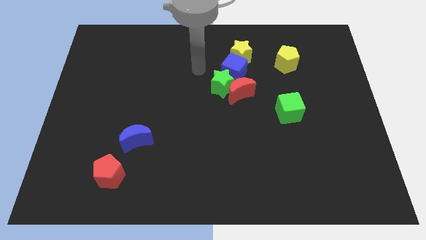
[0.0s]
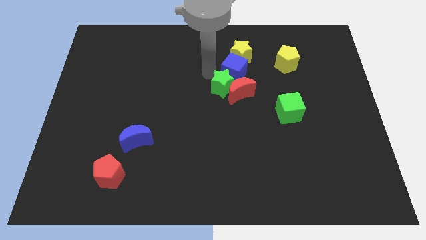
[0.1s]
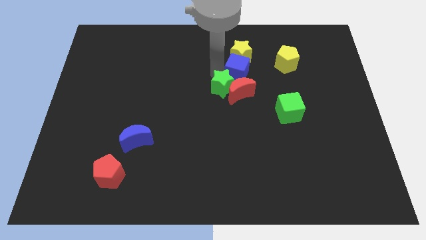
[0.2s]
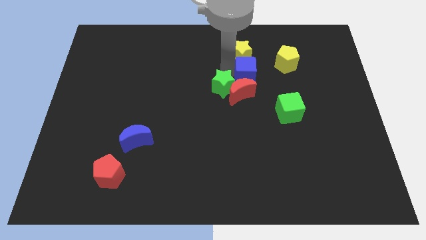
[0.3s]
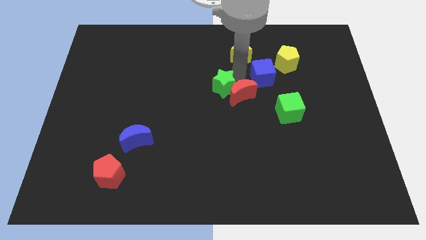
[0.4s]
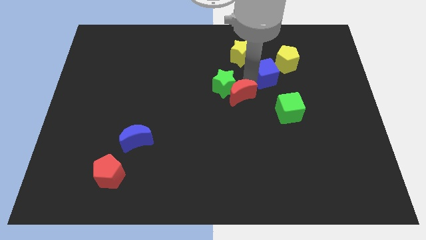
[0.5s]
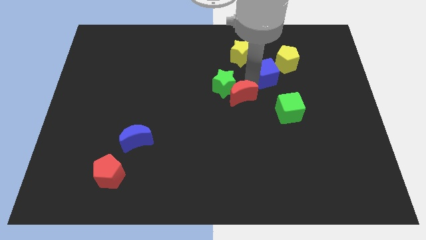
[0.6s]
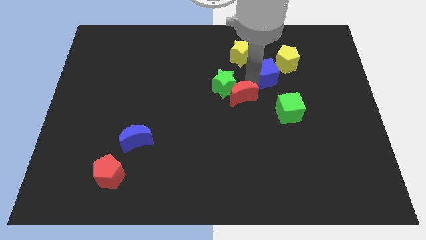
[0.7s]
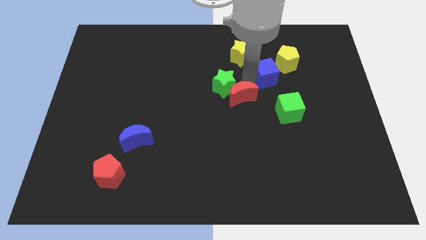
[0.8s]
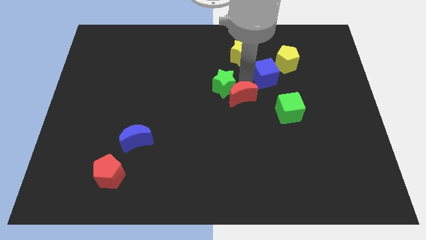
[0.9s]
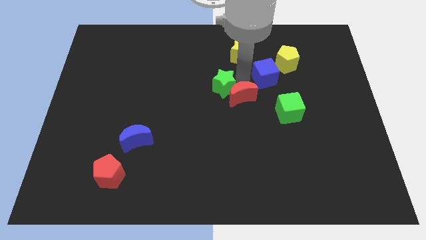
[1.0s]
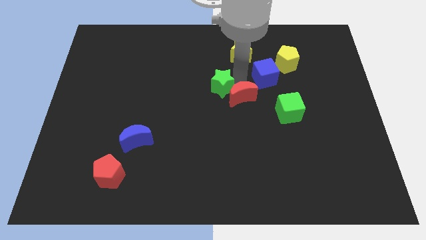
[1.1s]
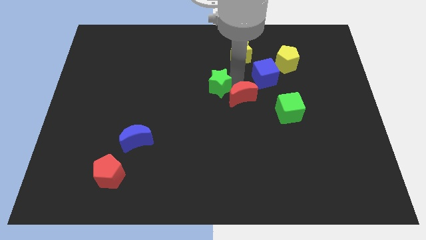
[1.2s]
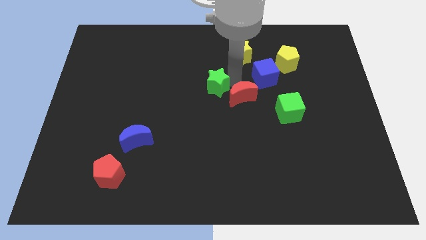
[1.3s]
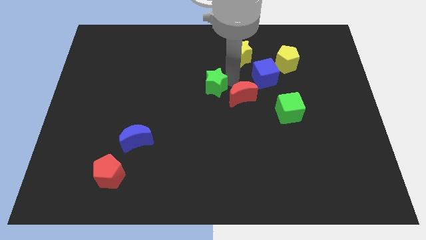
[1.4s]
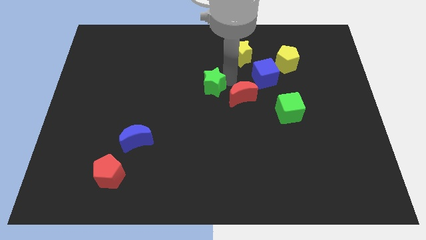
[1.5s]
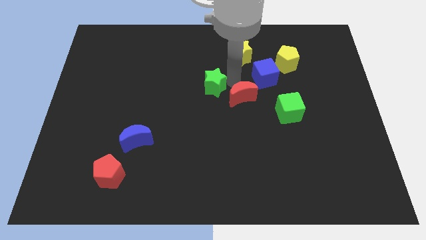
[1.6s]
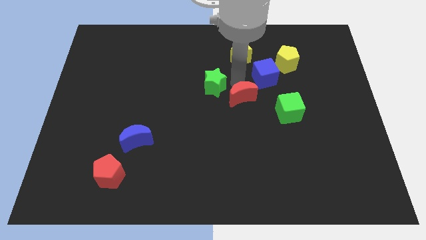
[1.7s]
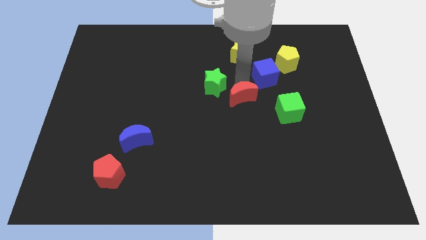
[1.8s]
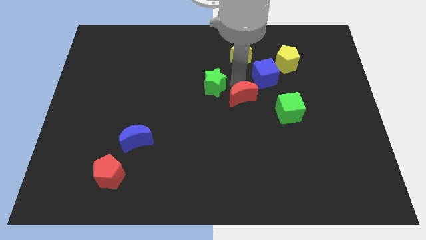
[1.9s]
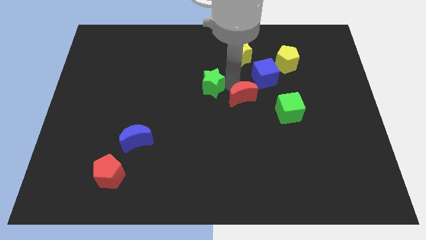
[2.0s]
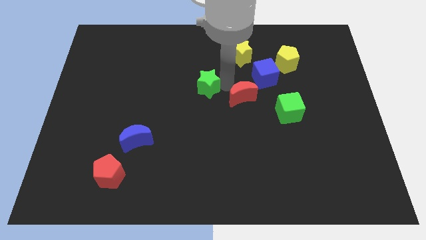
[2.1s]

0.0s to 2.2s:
separate the green star from the red moon and blue cube

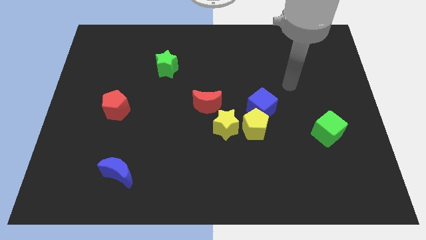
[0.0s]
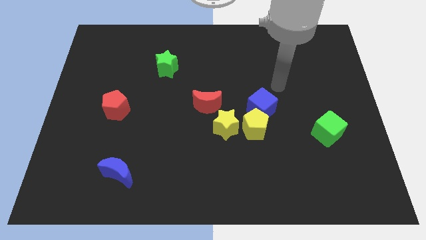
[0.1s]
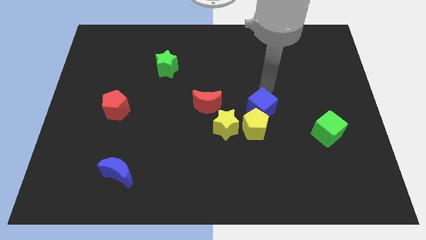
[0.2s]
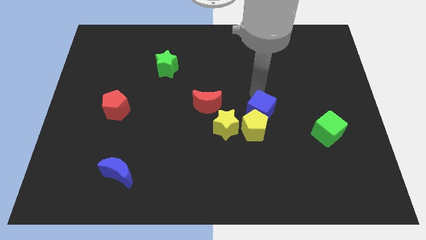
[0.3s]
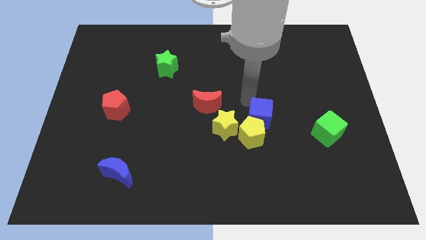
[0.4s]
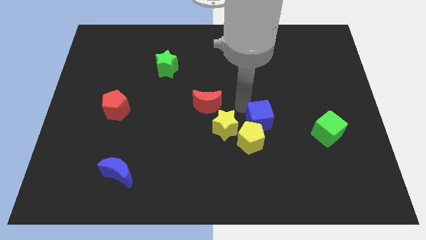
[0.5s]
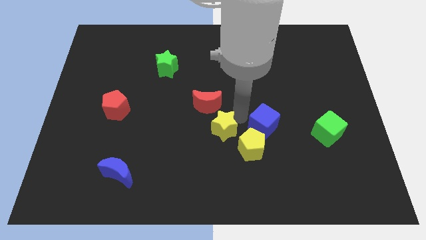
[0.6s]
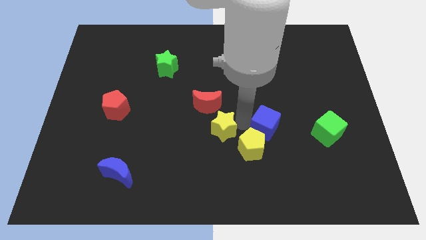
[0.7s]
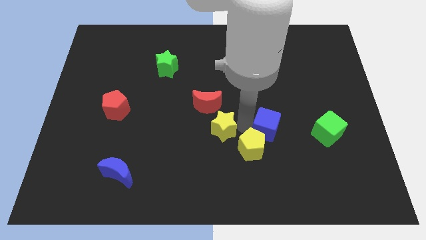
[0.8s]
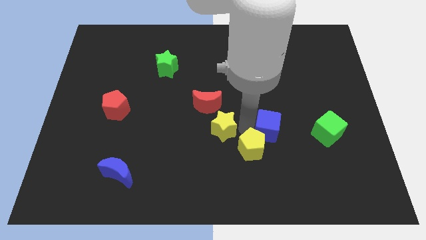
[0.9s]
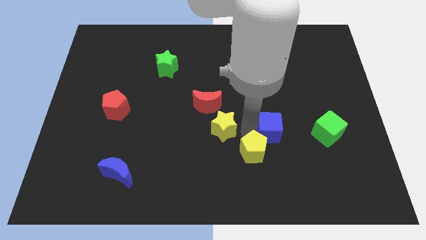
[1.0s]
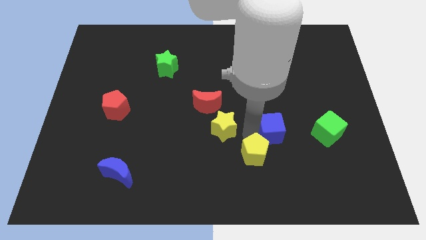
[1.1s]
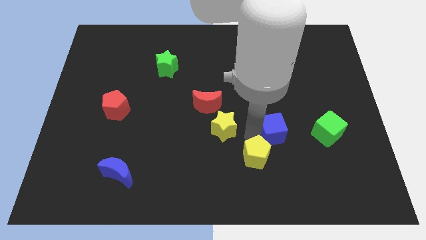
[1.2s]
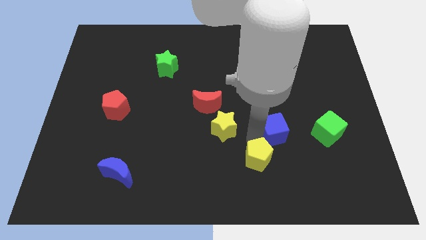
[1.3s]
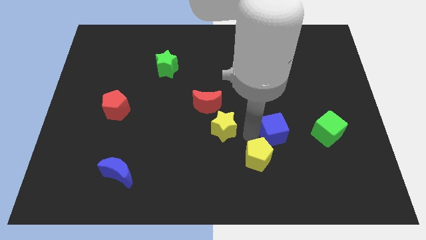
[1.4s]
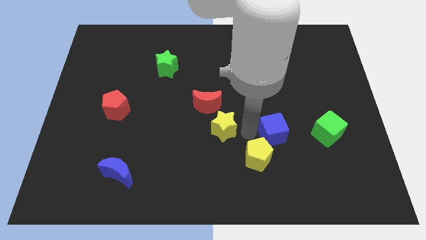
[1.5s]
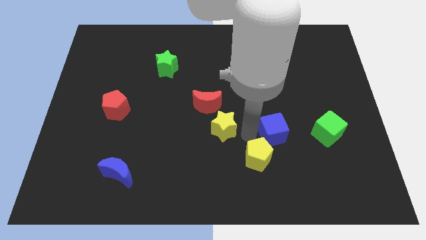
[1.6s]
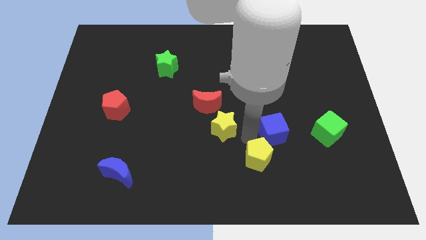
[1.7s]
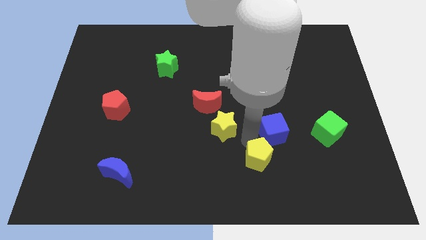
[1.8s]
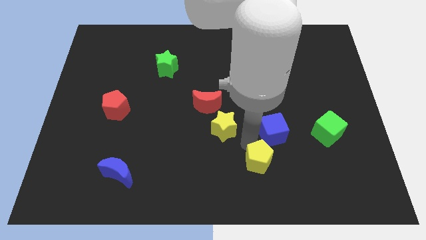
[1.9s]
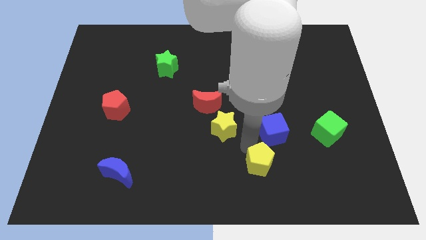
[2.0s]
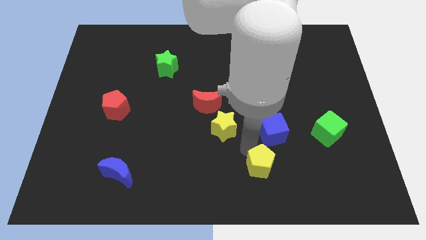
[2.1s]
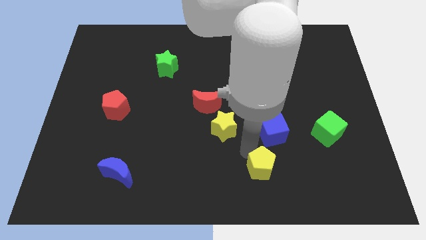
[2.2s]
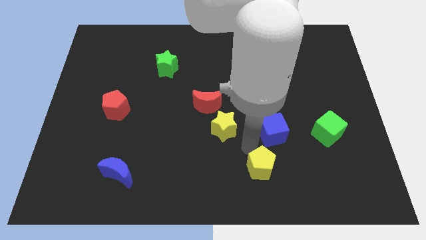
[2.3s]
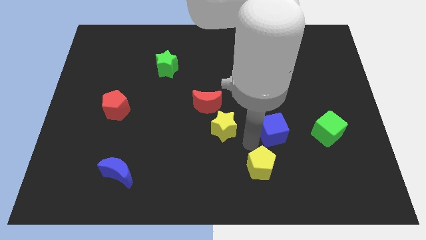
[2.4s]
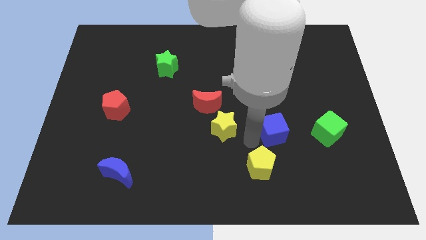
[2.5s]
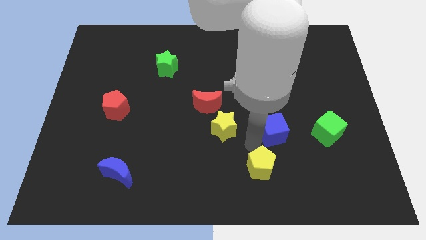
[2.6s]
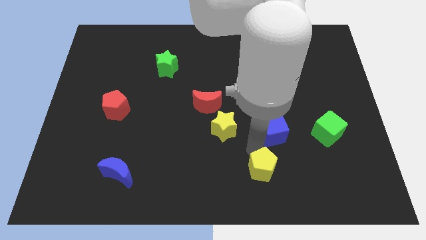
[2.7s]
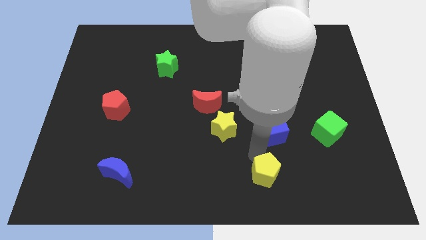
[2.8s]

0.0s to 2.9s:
pull the yellow pentagon apart from the blue cube and yellow star

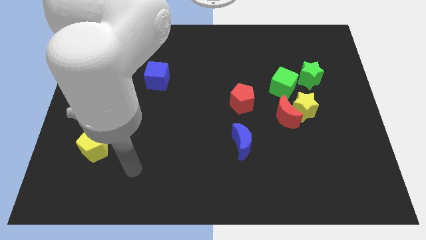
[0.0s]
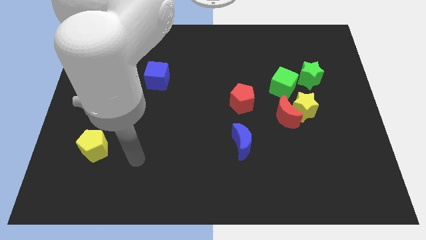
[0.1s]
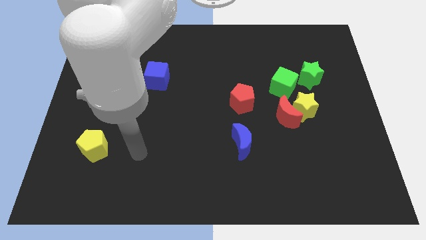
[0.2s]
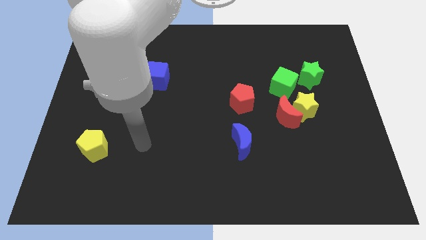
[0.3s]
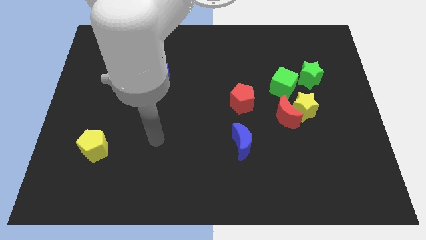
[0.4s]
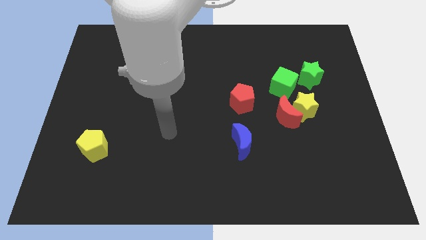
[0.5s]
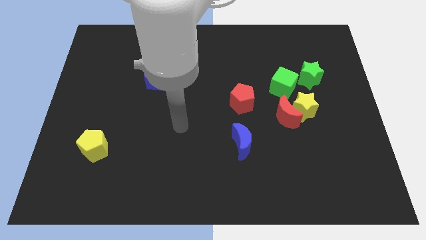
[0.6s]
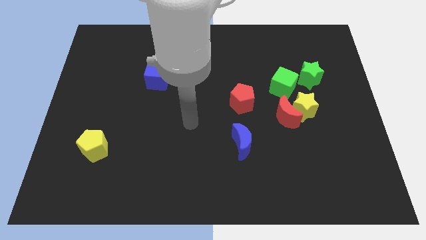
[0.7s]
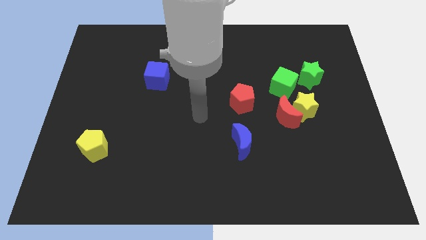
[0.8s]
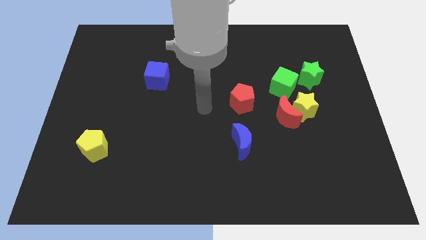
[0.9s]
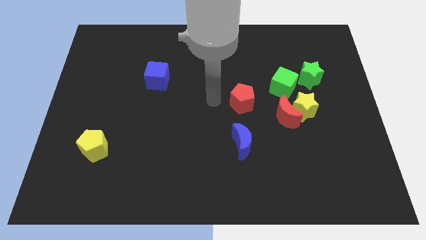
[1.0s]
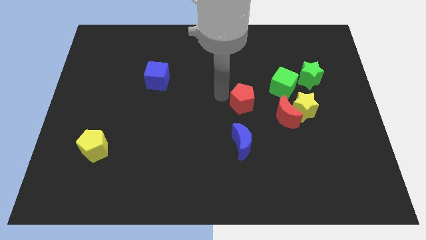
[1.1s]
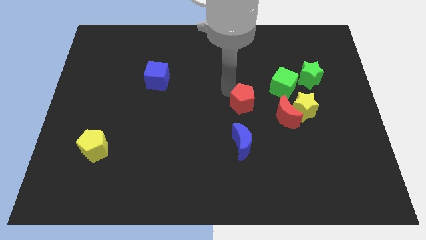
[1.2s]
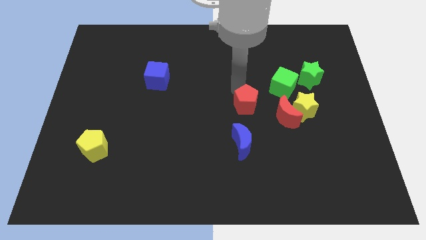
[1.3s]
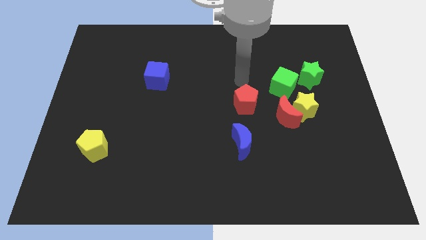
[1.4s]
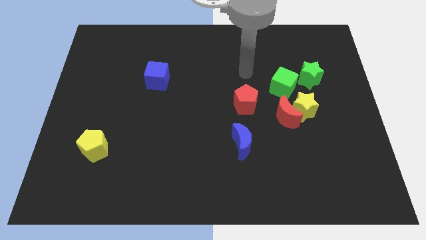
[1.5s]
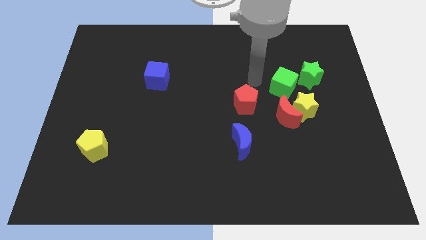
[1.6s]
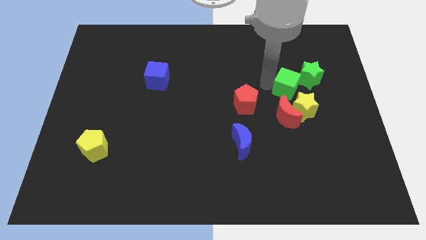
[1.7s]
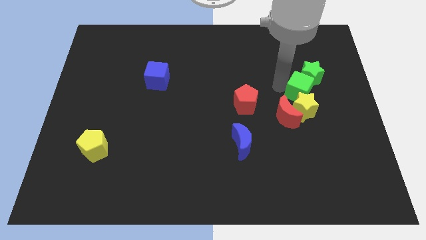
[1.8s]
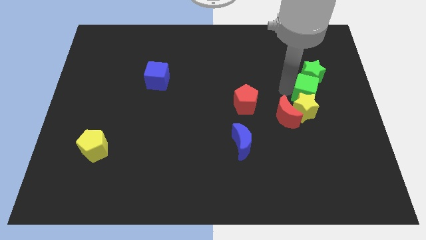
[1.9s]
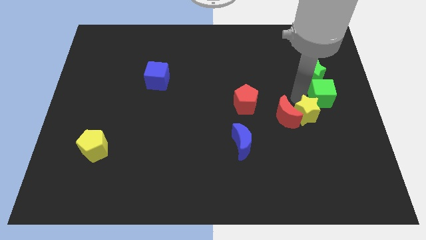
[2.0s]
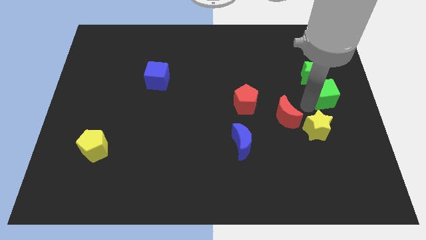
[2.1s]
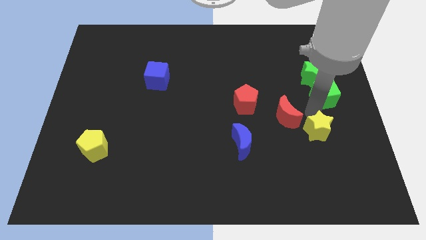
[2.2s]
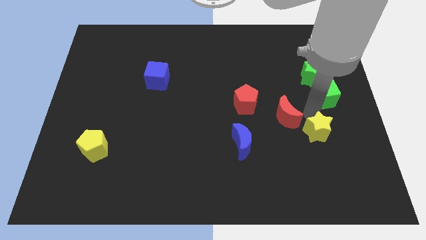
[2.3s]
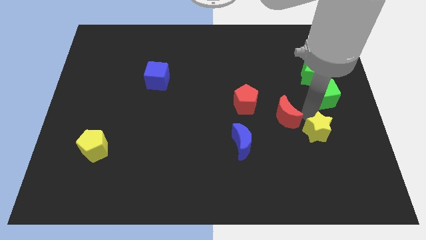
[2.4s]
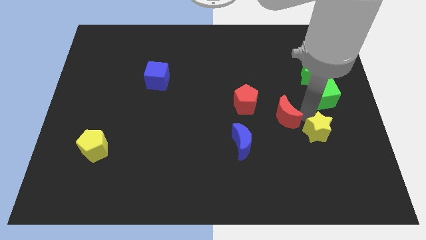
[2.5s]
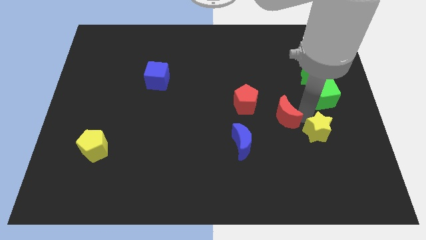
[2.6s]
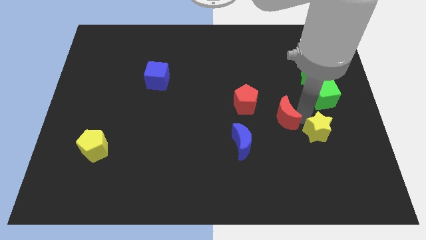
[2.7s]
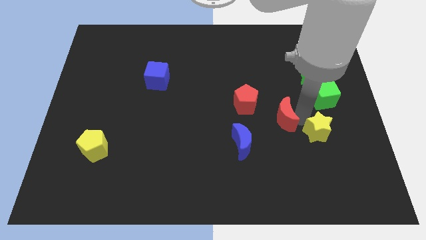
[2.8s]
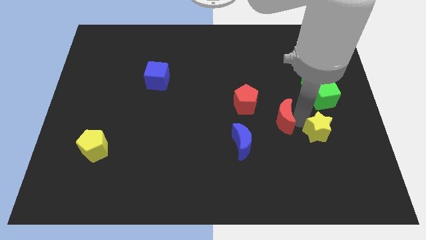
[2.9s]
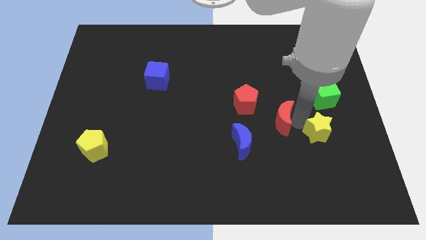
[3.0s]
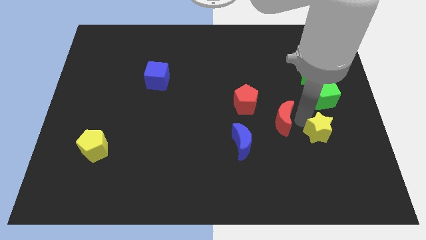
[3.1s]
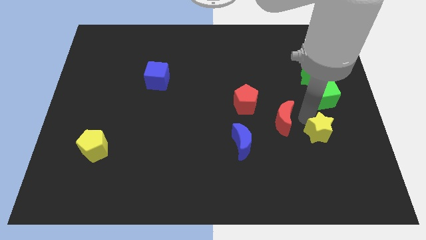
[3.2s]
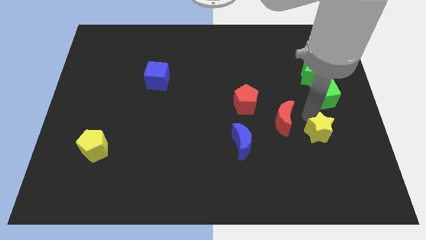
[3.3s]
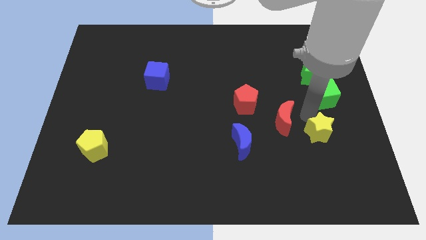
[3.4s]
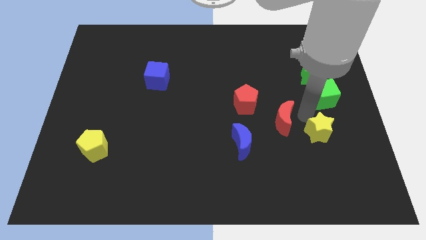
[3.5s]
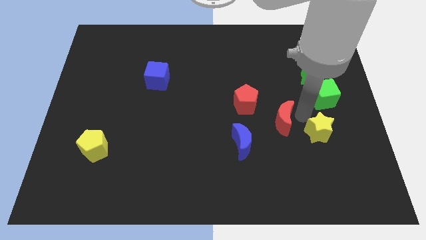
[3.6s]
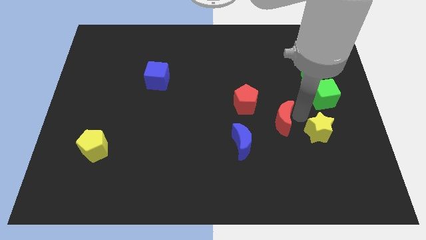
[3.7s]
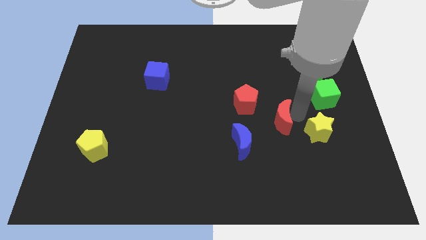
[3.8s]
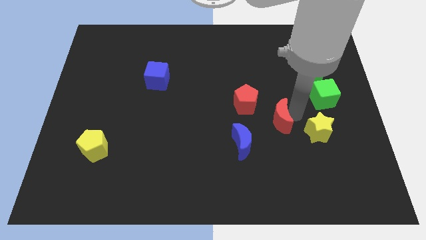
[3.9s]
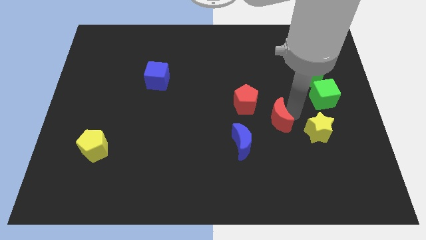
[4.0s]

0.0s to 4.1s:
separate the red moon from the yellow star and green cube

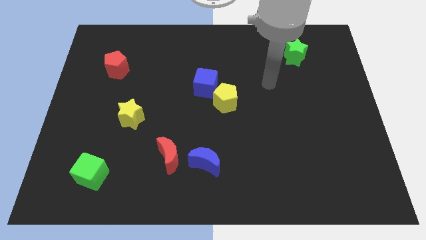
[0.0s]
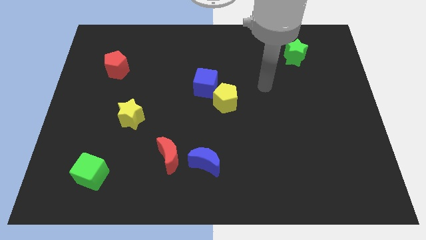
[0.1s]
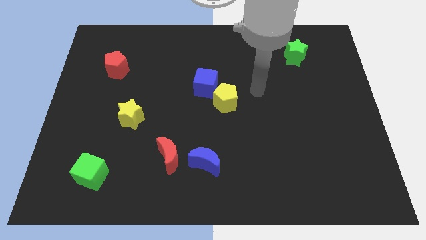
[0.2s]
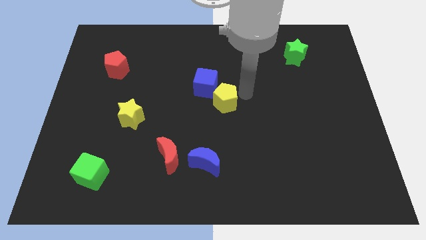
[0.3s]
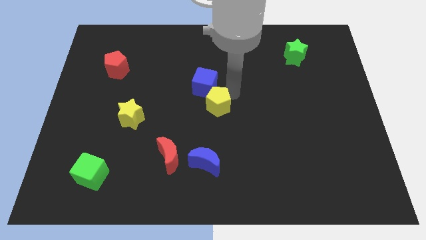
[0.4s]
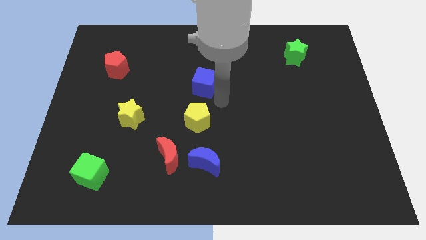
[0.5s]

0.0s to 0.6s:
pull the blue cube apart from the yellow pentagon
